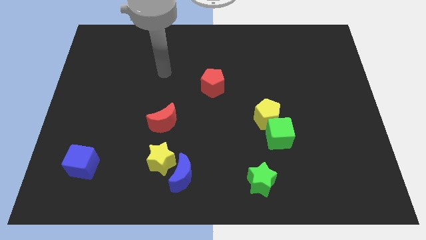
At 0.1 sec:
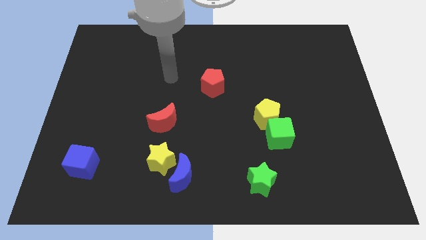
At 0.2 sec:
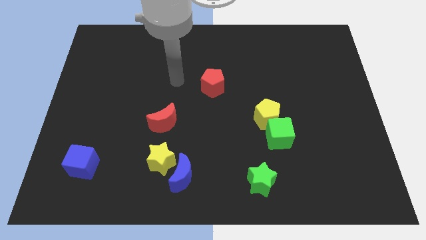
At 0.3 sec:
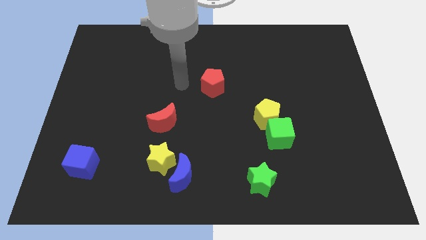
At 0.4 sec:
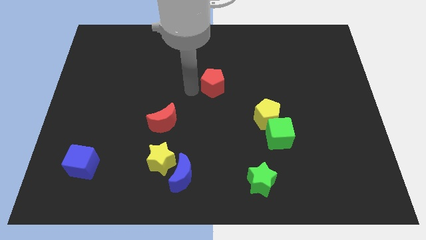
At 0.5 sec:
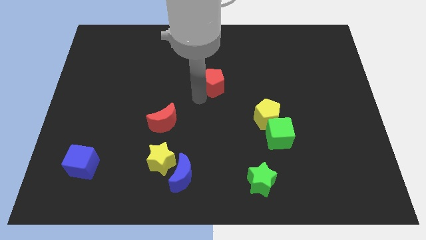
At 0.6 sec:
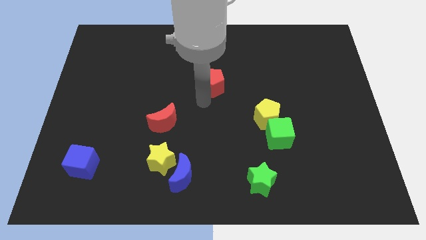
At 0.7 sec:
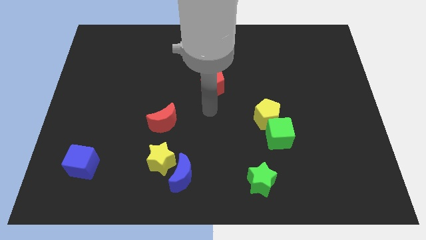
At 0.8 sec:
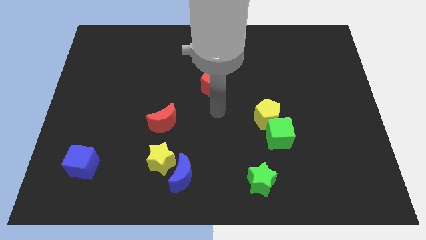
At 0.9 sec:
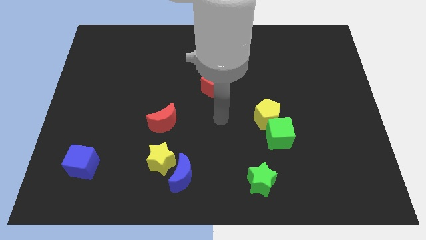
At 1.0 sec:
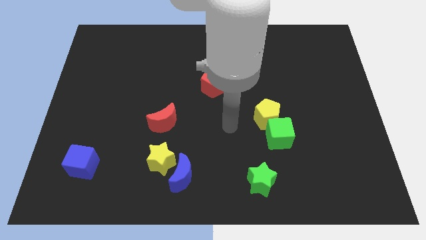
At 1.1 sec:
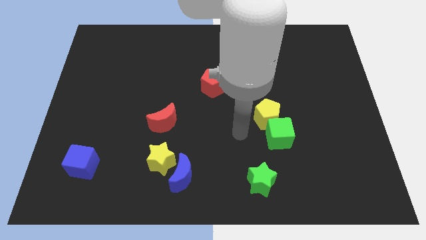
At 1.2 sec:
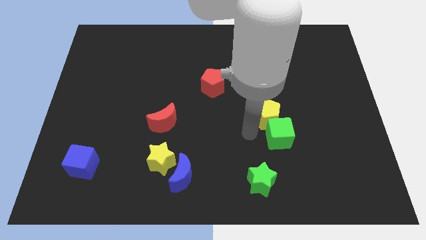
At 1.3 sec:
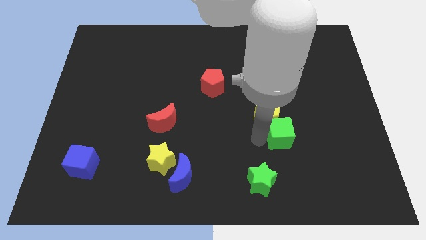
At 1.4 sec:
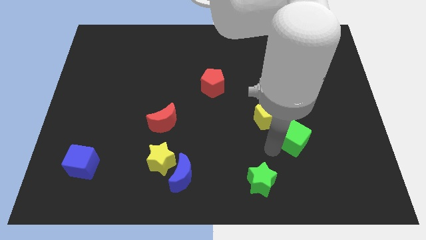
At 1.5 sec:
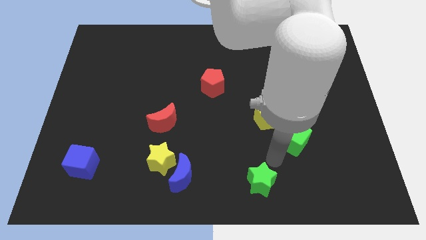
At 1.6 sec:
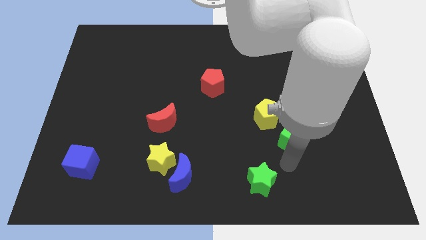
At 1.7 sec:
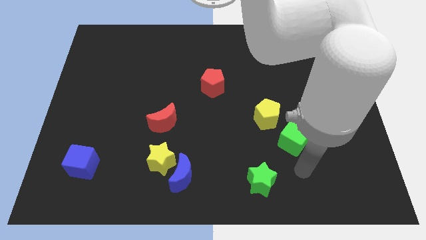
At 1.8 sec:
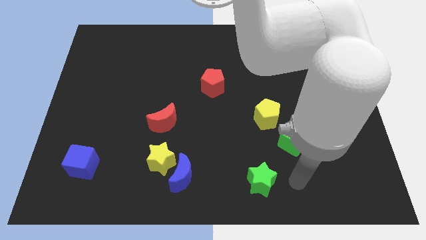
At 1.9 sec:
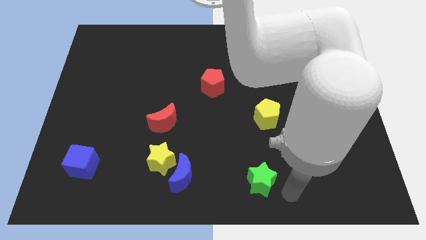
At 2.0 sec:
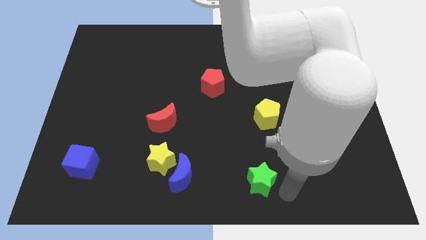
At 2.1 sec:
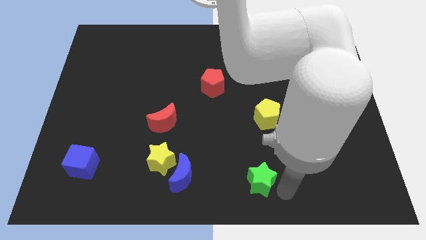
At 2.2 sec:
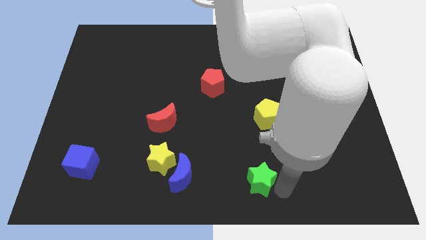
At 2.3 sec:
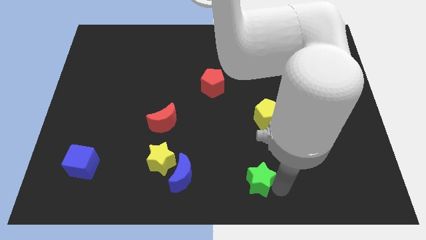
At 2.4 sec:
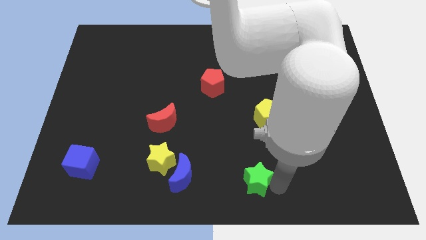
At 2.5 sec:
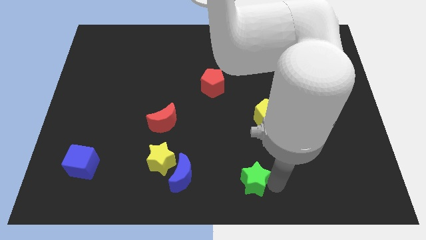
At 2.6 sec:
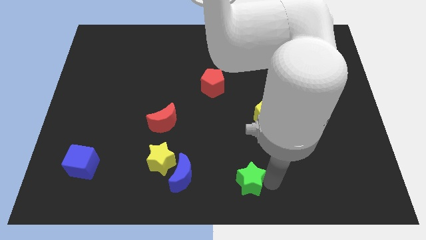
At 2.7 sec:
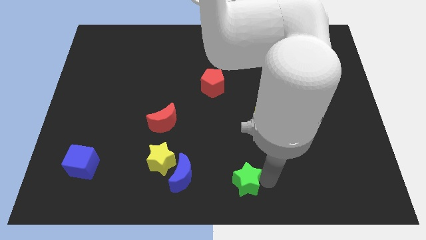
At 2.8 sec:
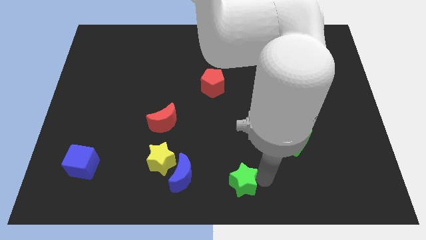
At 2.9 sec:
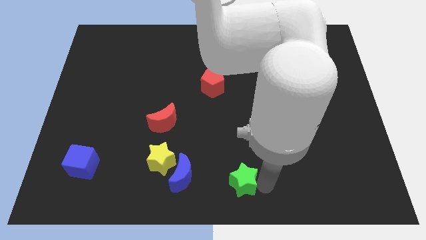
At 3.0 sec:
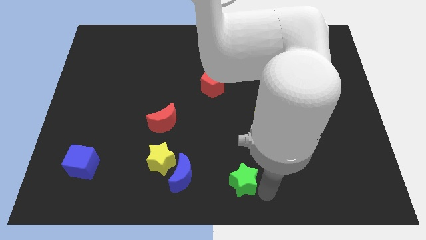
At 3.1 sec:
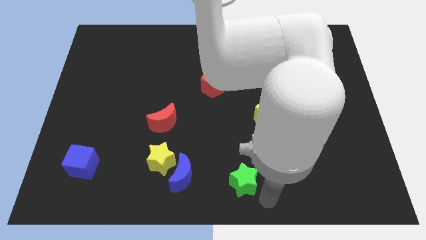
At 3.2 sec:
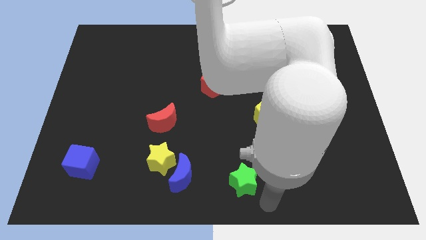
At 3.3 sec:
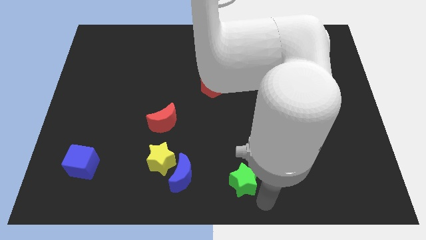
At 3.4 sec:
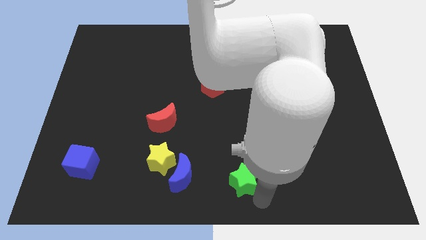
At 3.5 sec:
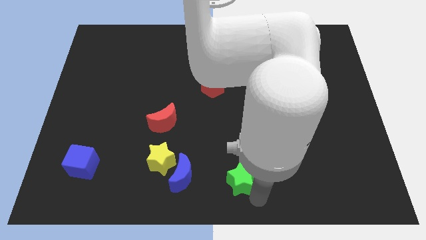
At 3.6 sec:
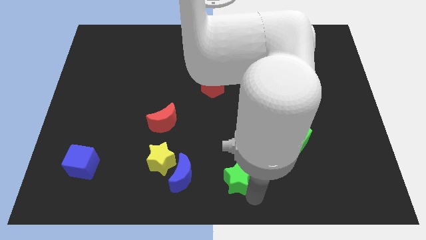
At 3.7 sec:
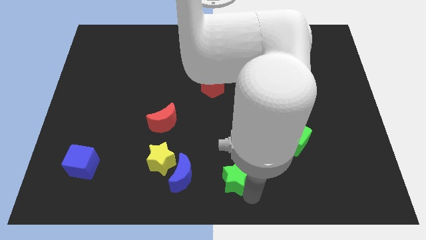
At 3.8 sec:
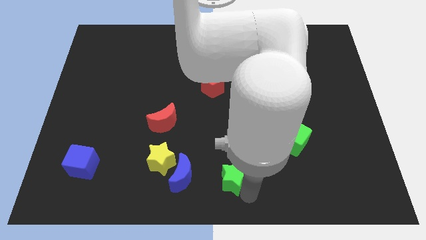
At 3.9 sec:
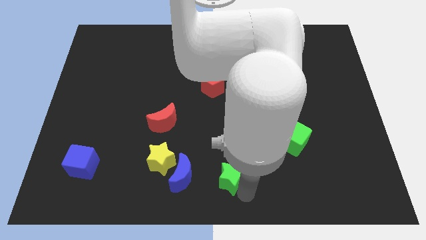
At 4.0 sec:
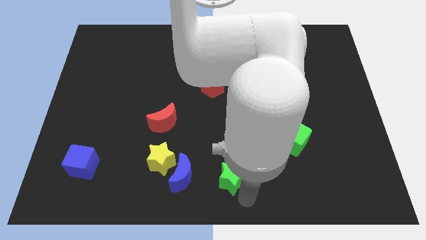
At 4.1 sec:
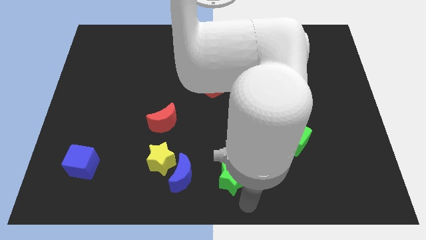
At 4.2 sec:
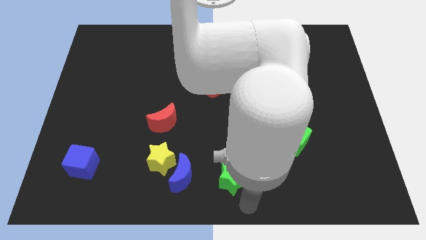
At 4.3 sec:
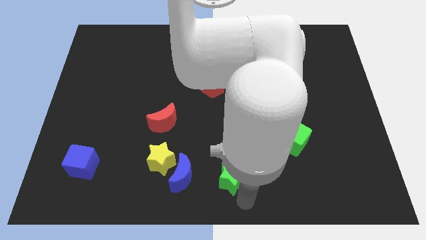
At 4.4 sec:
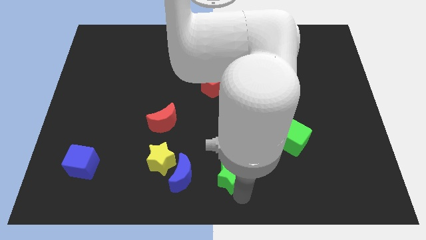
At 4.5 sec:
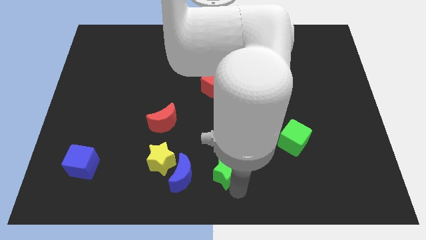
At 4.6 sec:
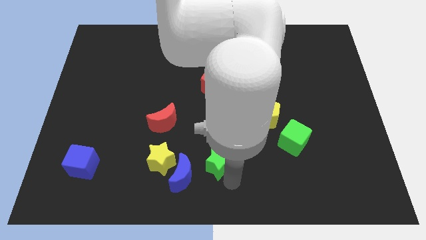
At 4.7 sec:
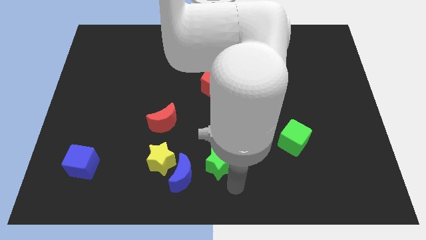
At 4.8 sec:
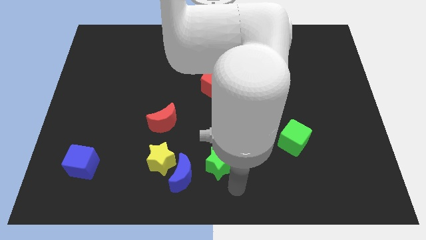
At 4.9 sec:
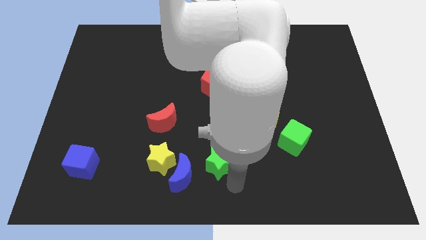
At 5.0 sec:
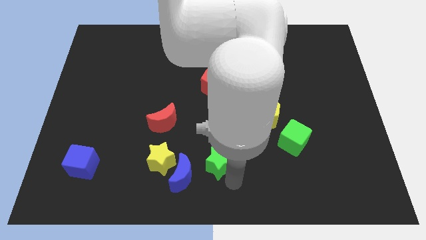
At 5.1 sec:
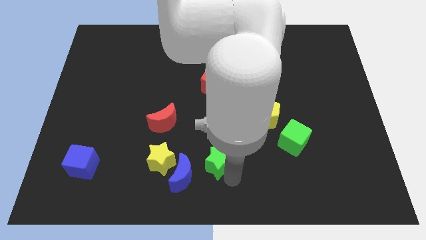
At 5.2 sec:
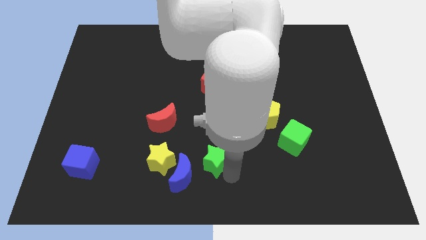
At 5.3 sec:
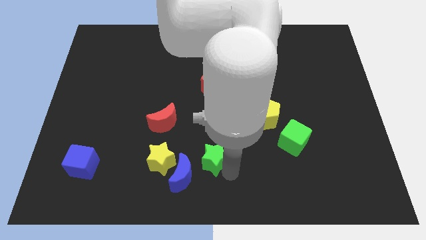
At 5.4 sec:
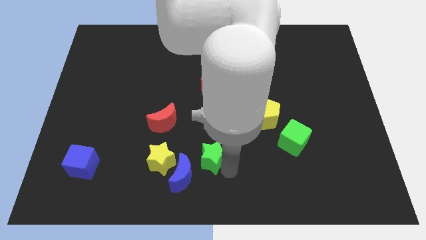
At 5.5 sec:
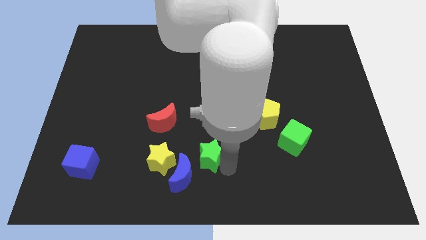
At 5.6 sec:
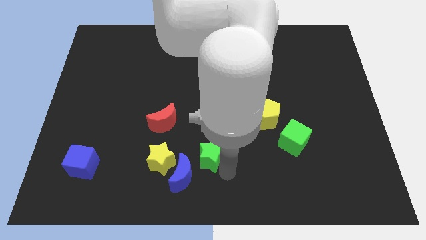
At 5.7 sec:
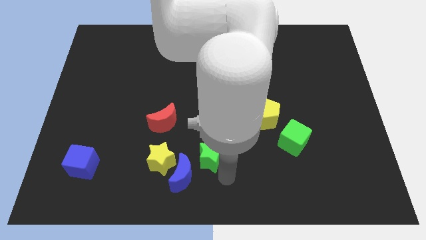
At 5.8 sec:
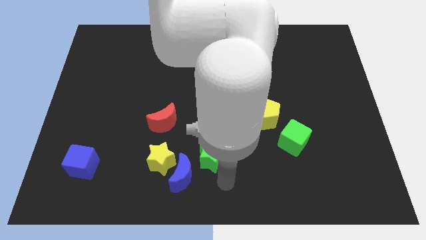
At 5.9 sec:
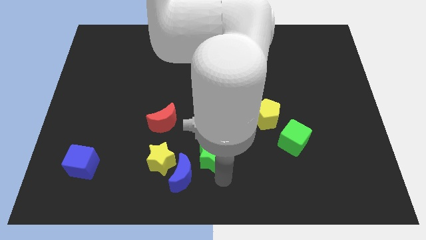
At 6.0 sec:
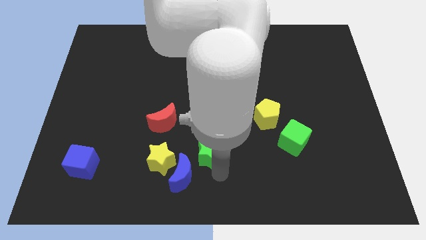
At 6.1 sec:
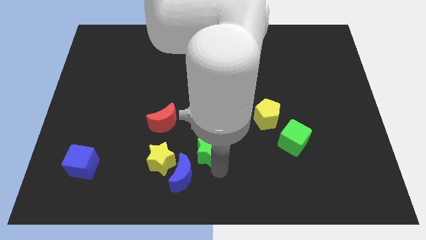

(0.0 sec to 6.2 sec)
slide the green star diagonally down and to the right of the red moon

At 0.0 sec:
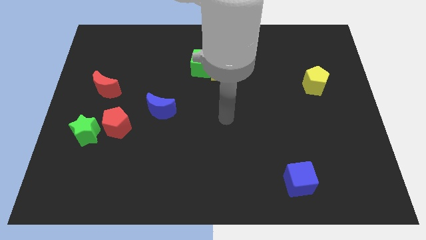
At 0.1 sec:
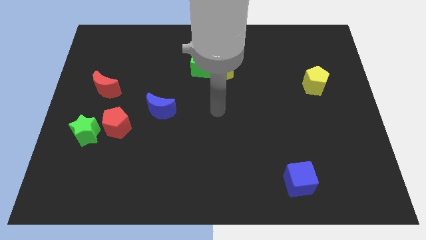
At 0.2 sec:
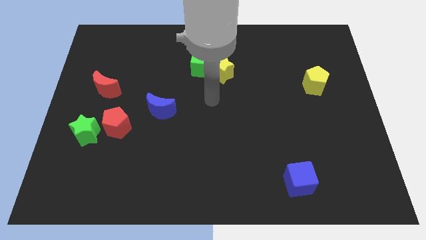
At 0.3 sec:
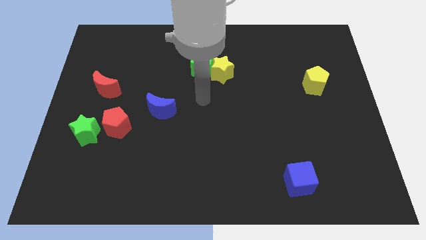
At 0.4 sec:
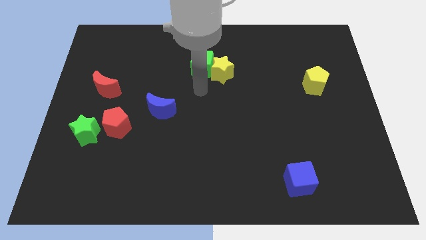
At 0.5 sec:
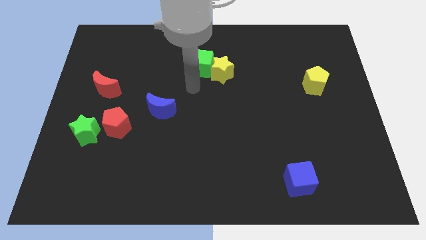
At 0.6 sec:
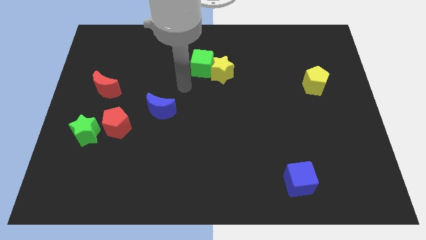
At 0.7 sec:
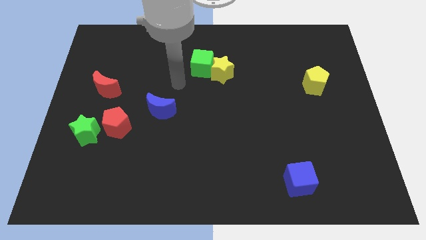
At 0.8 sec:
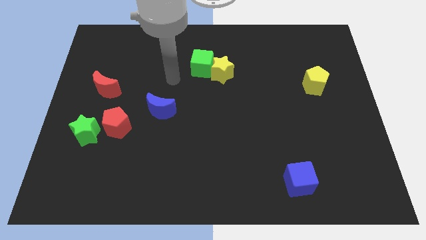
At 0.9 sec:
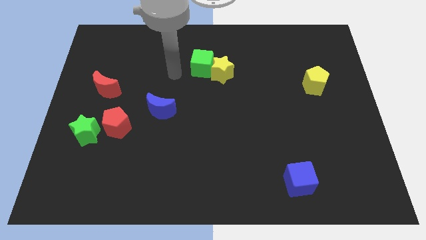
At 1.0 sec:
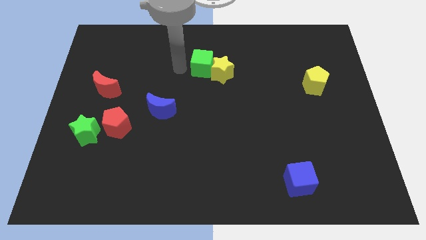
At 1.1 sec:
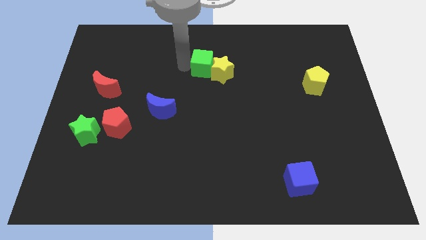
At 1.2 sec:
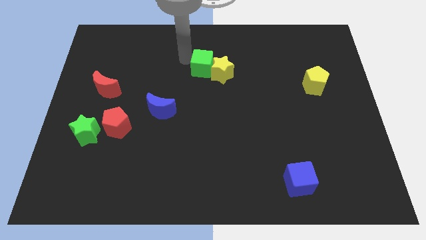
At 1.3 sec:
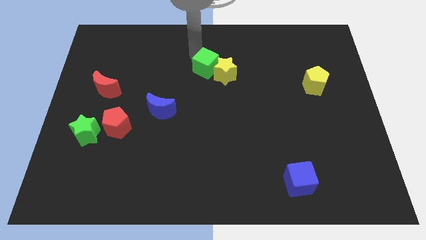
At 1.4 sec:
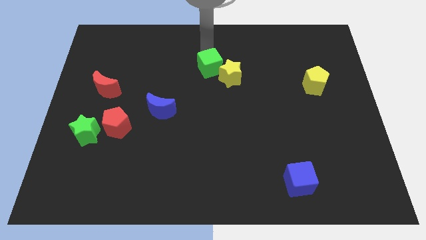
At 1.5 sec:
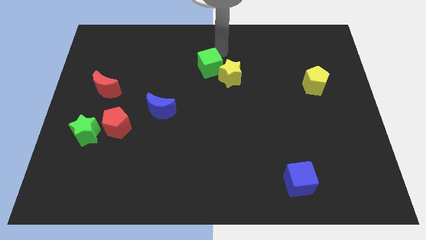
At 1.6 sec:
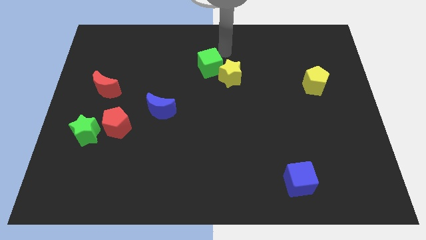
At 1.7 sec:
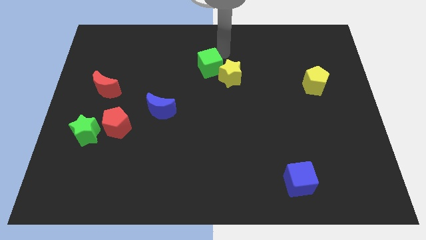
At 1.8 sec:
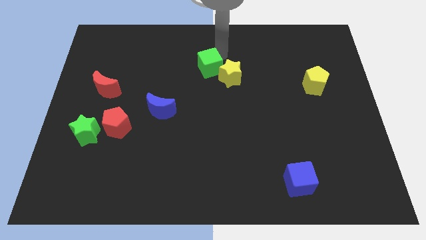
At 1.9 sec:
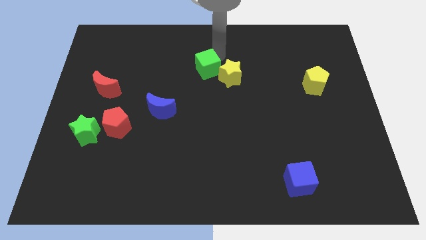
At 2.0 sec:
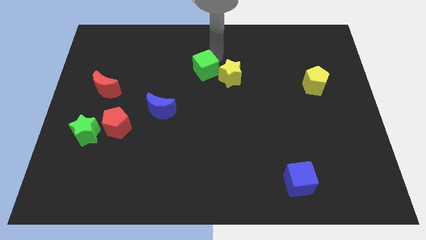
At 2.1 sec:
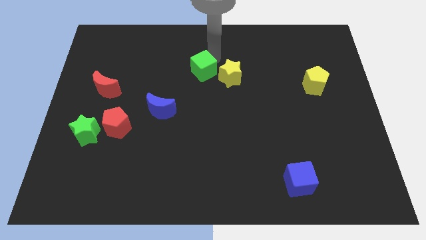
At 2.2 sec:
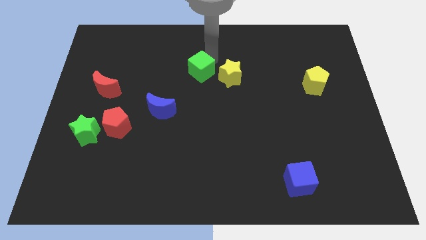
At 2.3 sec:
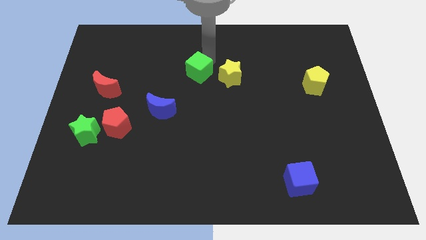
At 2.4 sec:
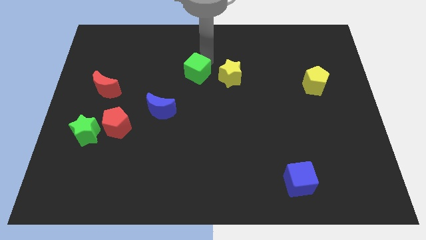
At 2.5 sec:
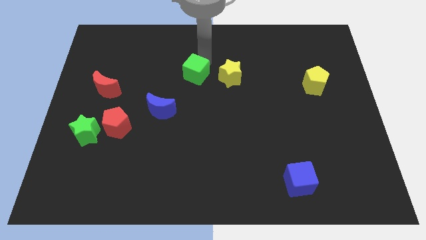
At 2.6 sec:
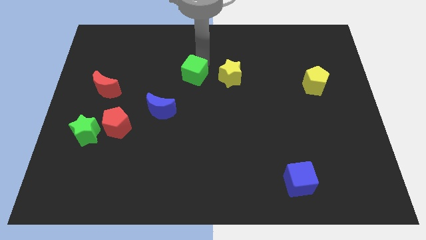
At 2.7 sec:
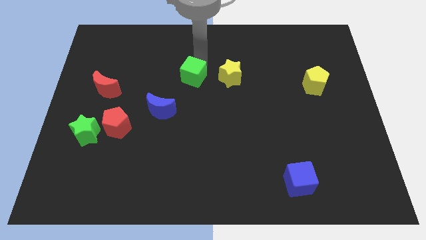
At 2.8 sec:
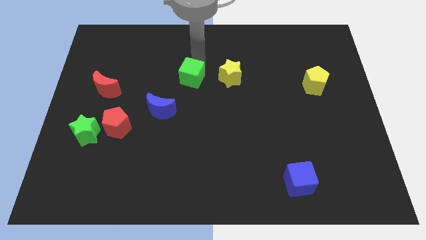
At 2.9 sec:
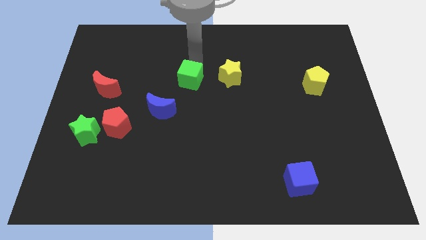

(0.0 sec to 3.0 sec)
push the green cube diagonally up and to the right of the blue moon
